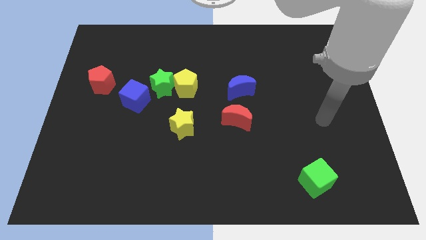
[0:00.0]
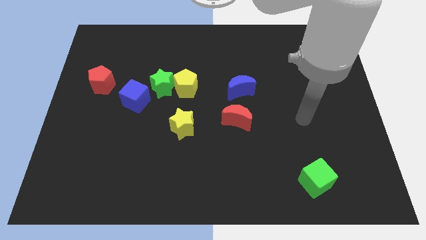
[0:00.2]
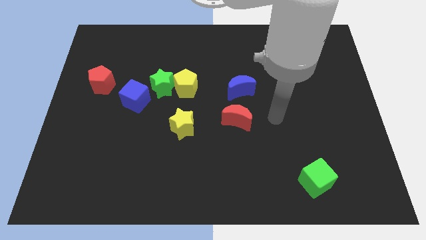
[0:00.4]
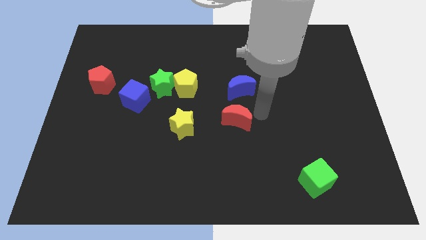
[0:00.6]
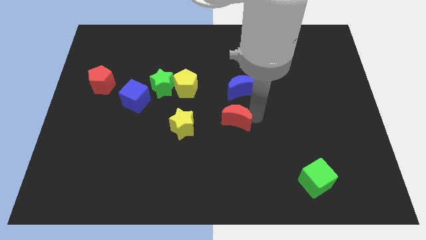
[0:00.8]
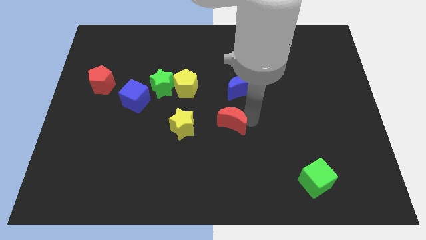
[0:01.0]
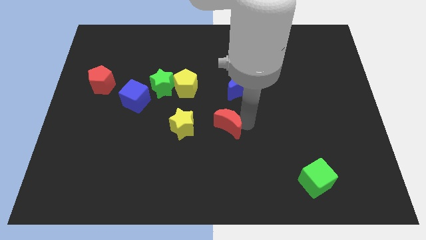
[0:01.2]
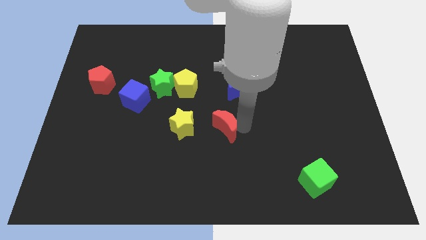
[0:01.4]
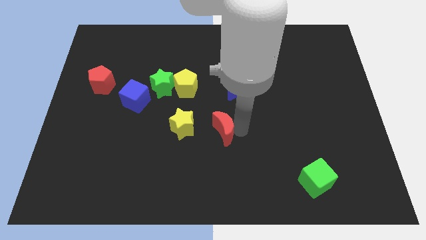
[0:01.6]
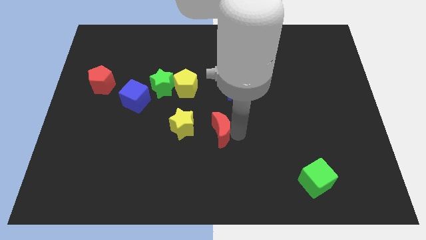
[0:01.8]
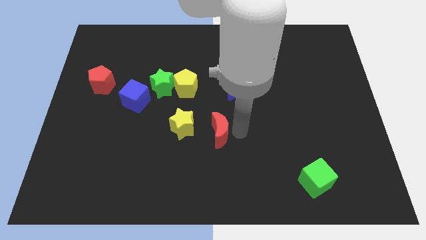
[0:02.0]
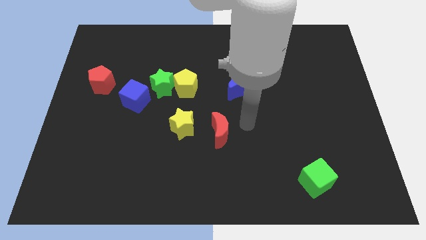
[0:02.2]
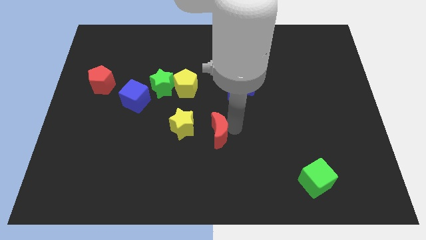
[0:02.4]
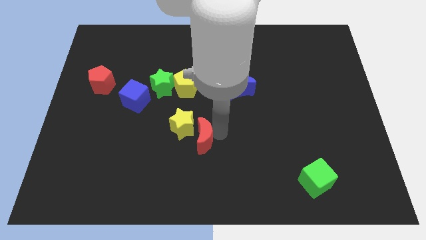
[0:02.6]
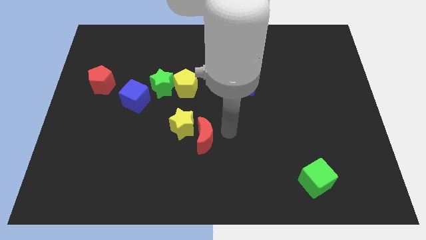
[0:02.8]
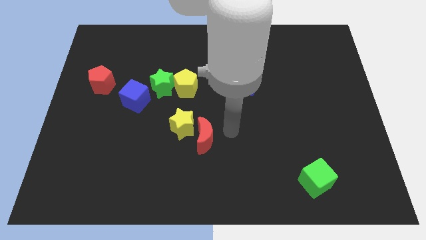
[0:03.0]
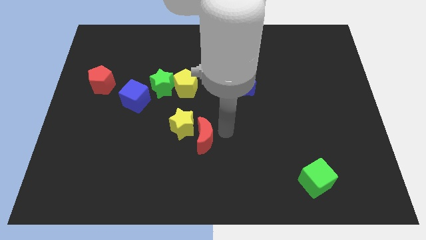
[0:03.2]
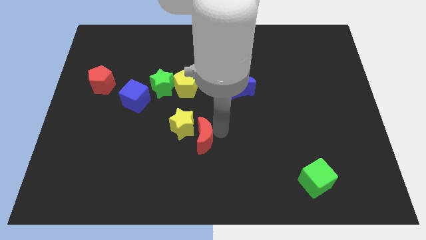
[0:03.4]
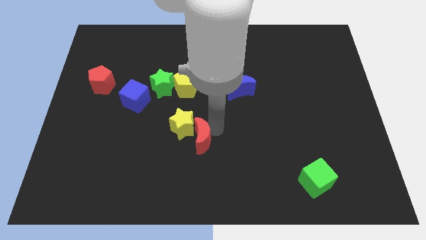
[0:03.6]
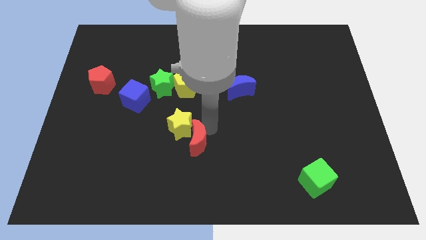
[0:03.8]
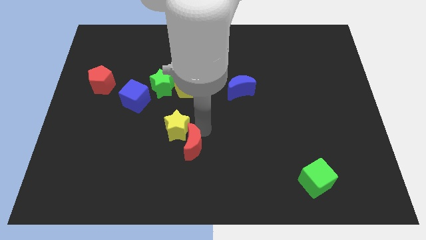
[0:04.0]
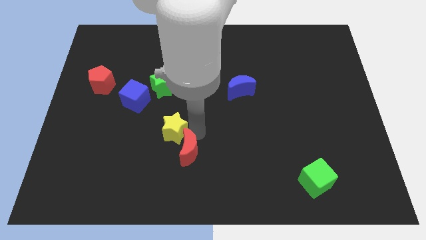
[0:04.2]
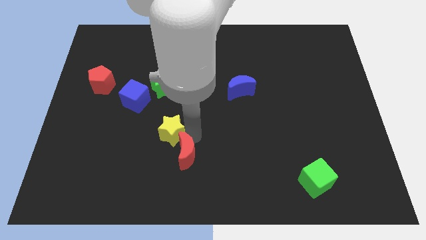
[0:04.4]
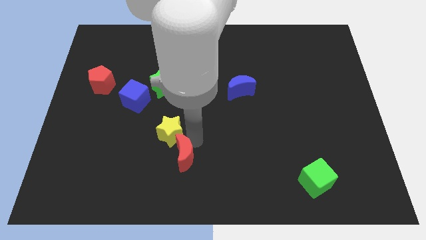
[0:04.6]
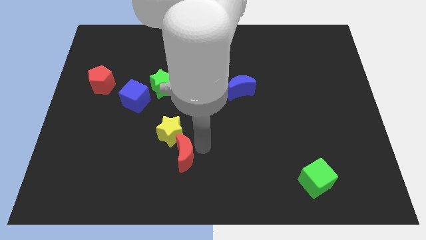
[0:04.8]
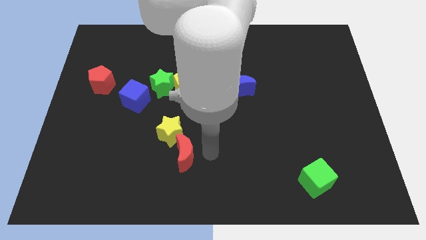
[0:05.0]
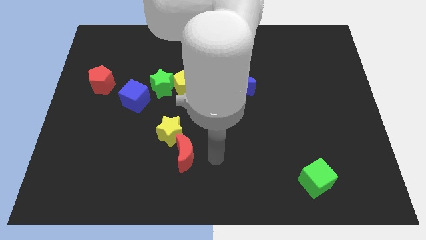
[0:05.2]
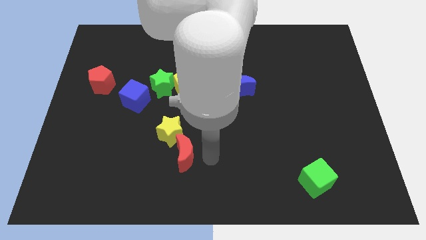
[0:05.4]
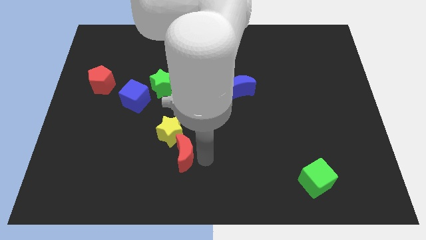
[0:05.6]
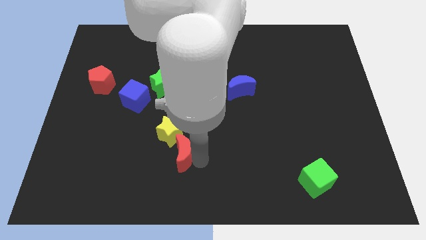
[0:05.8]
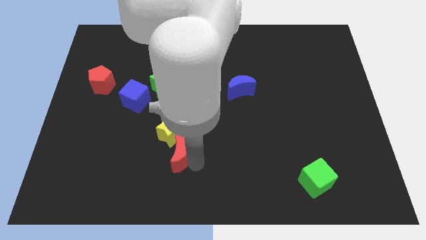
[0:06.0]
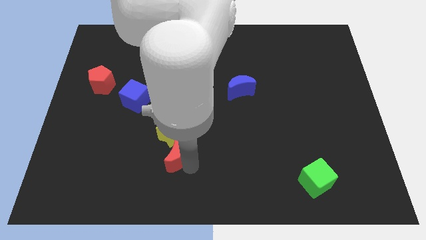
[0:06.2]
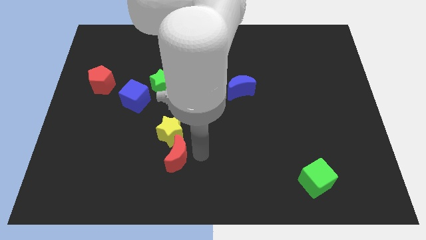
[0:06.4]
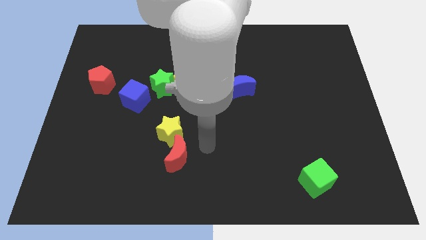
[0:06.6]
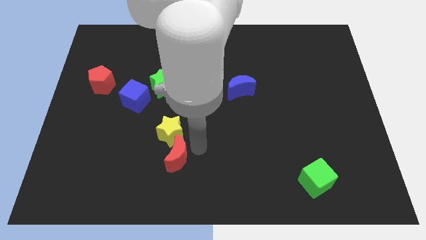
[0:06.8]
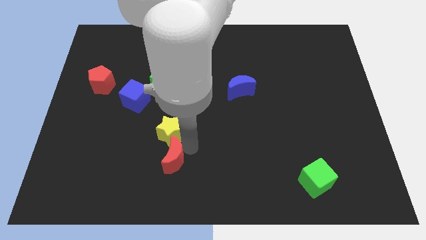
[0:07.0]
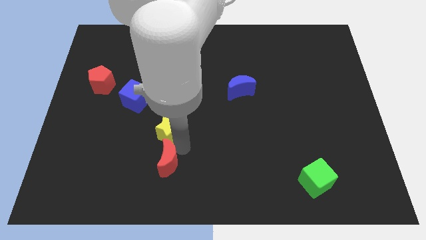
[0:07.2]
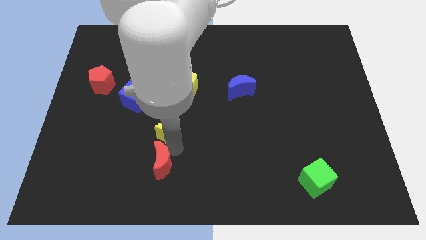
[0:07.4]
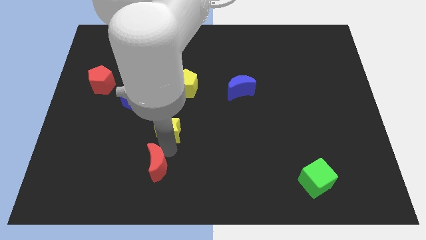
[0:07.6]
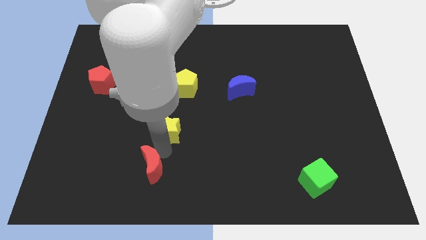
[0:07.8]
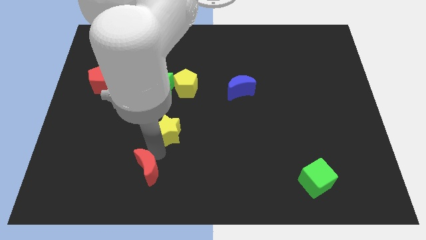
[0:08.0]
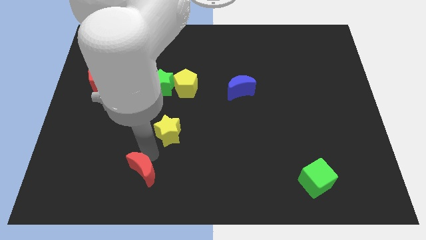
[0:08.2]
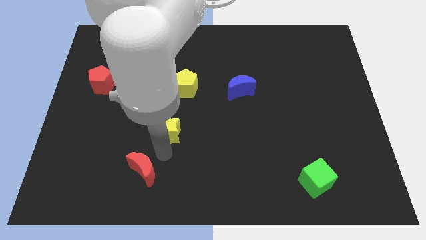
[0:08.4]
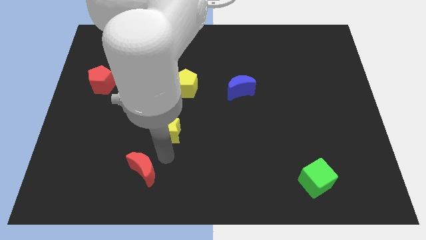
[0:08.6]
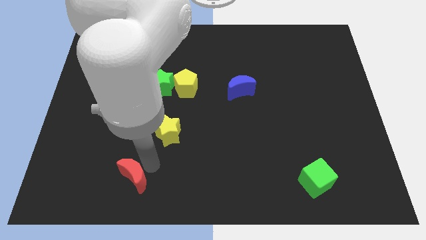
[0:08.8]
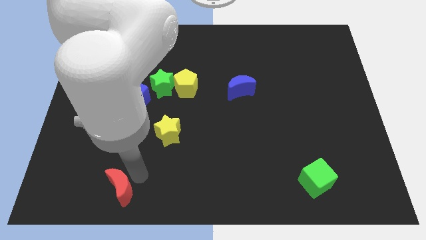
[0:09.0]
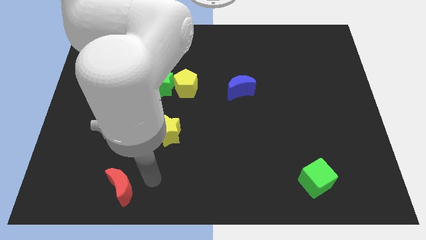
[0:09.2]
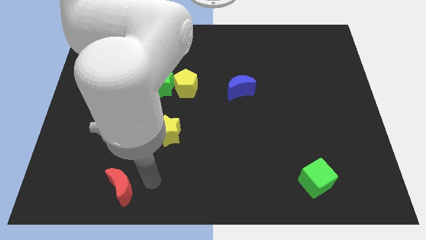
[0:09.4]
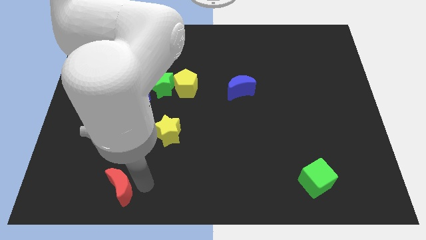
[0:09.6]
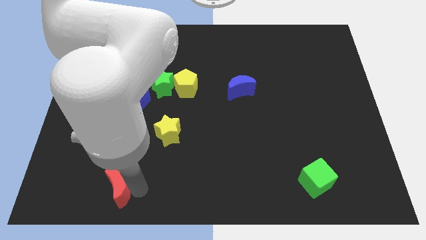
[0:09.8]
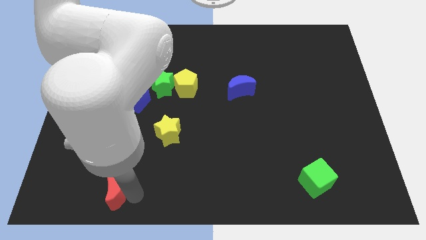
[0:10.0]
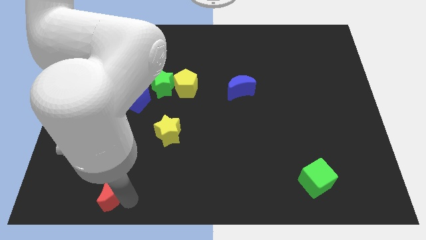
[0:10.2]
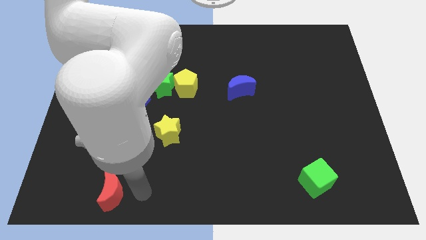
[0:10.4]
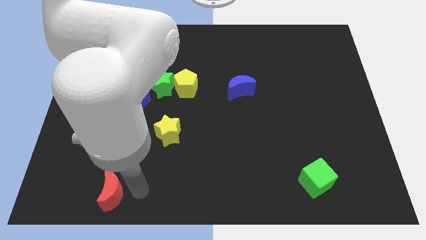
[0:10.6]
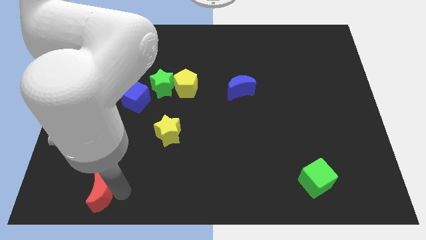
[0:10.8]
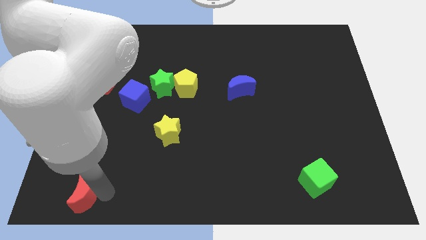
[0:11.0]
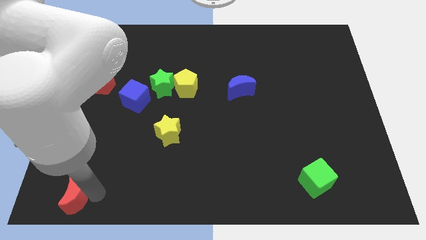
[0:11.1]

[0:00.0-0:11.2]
move the red moon to the bottom left of the board
